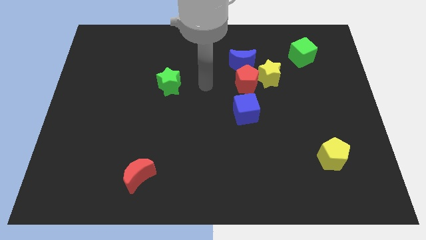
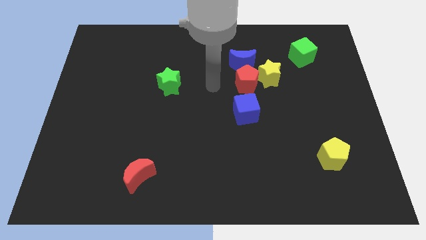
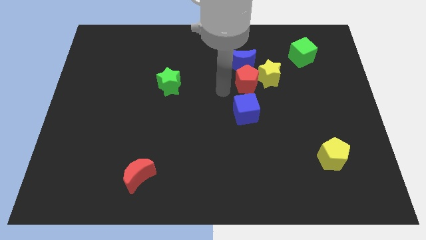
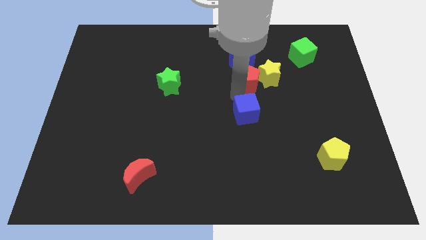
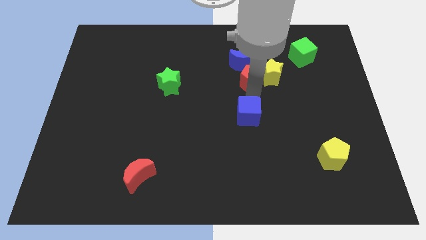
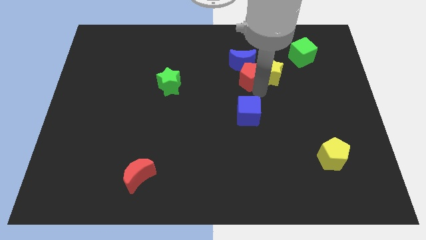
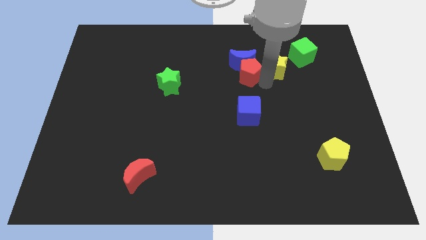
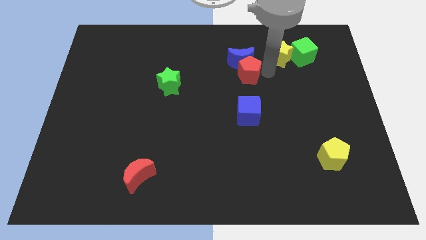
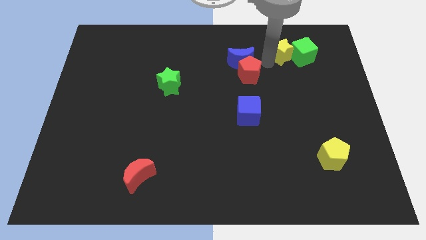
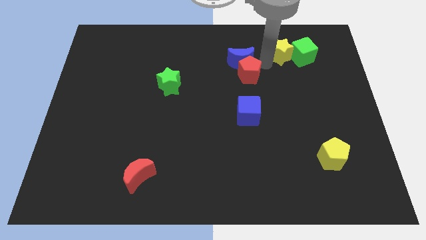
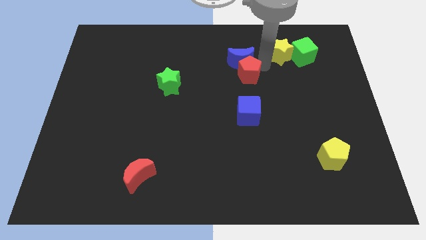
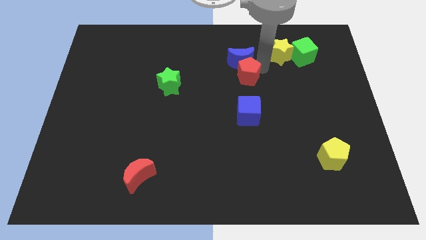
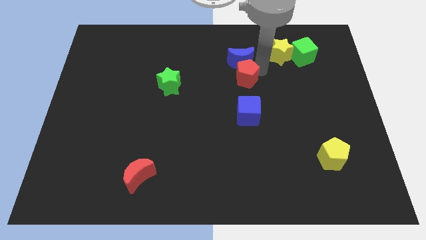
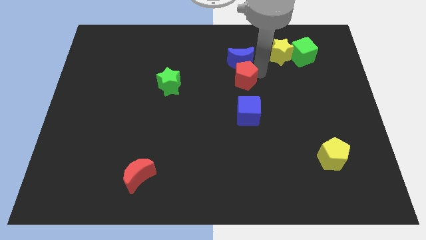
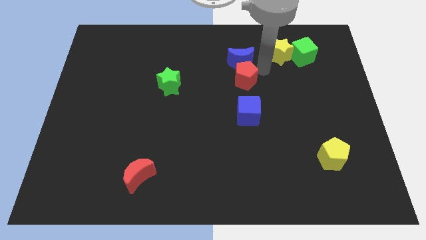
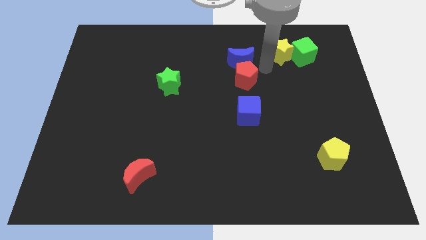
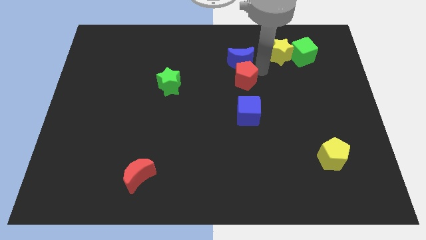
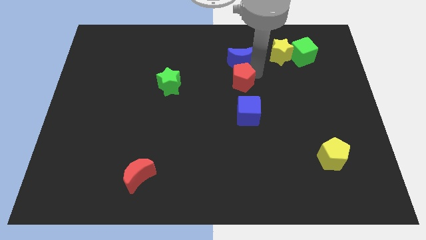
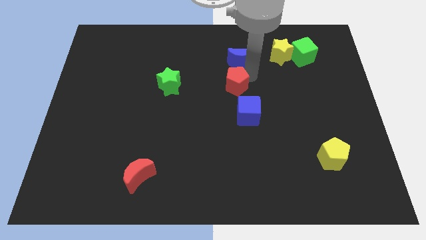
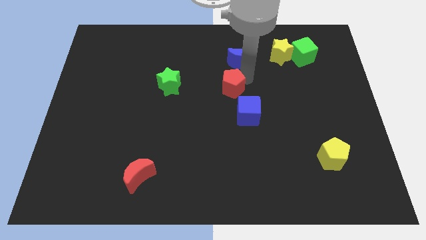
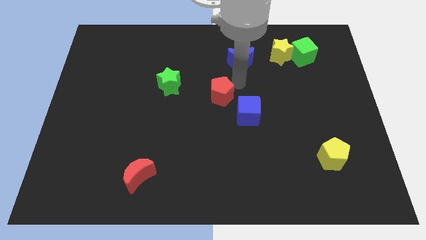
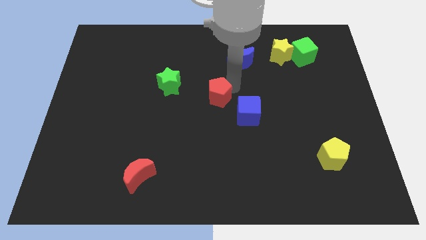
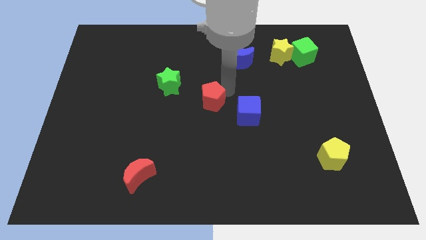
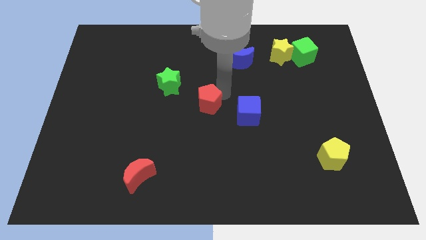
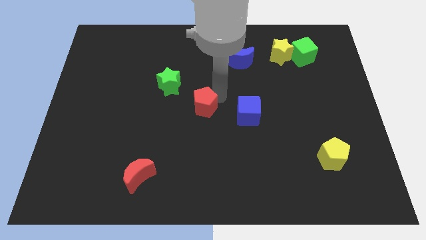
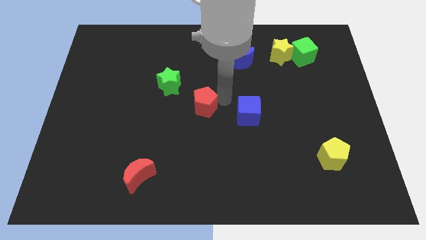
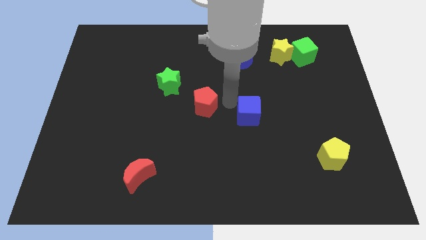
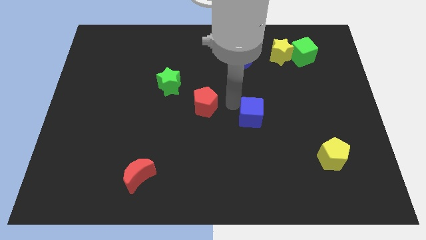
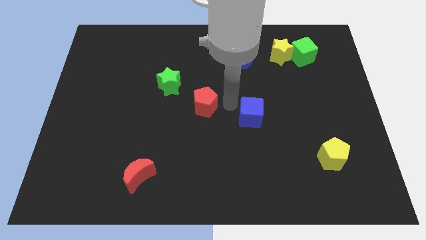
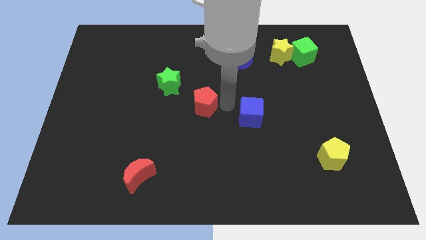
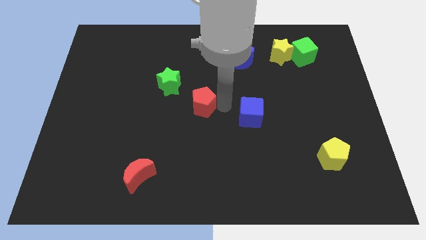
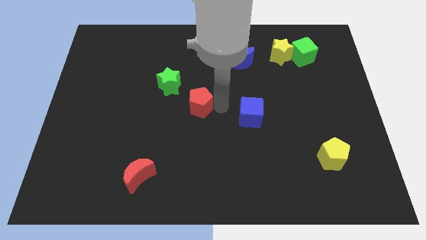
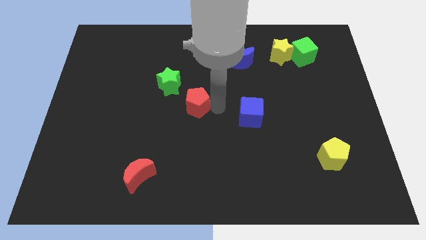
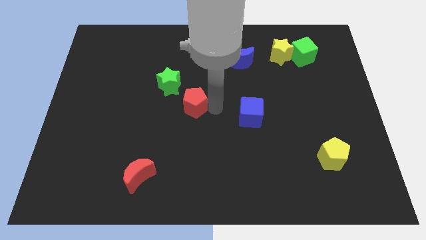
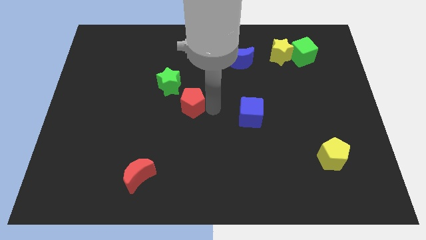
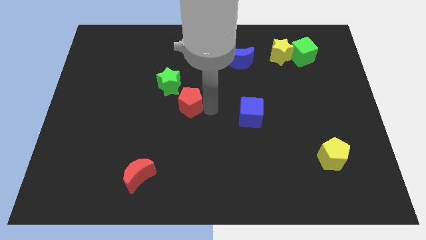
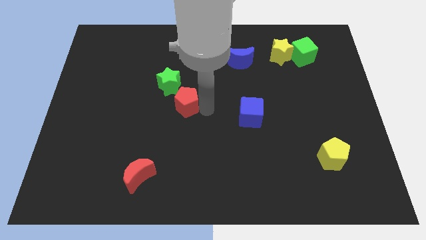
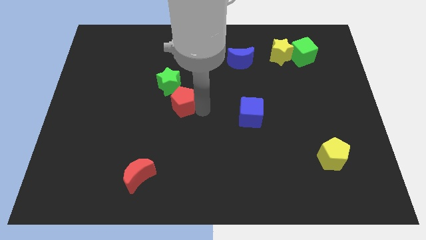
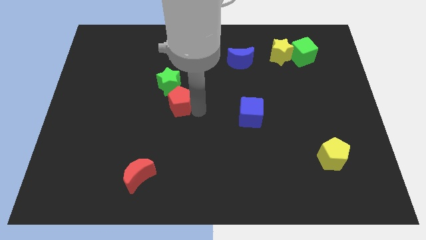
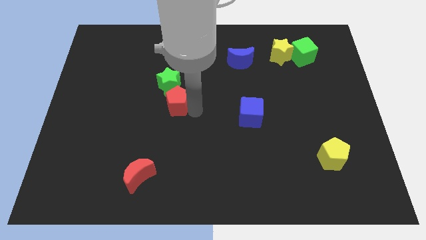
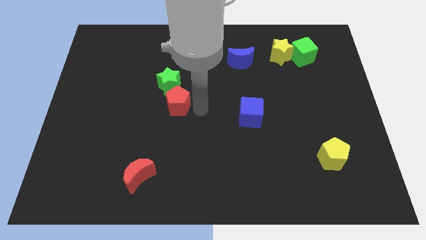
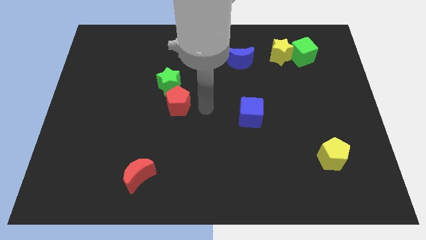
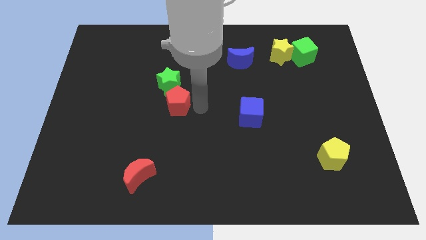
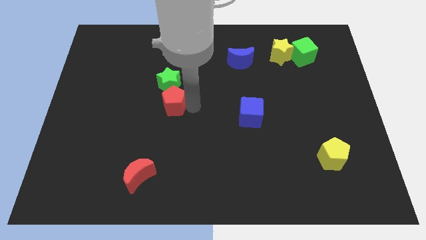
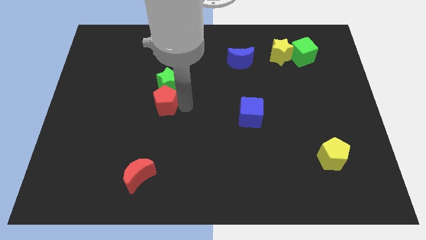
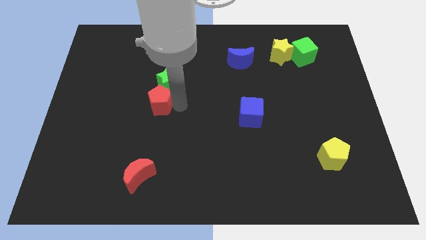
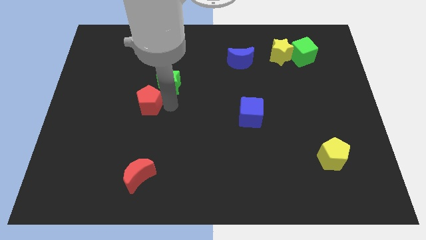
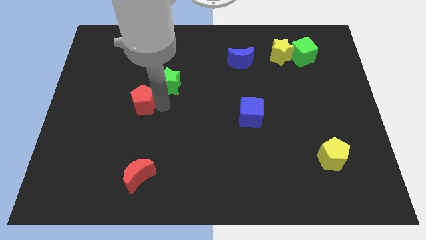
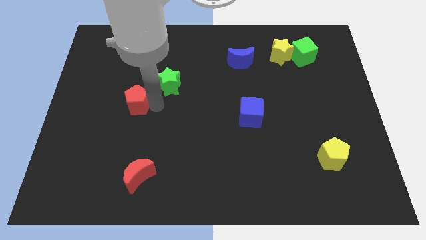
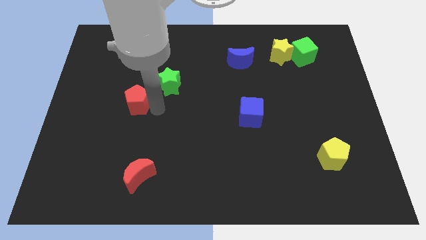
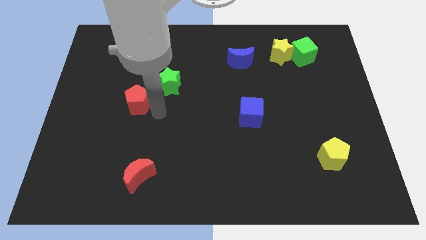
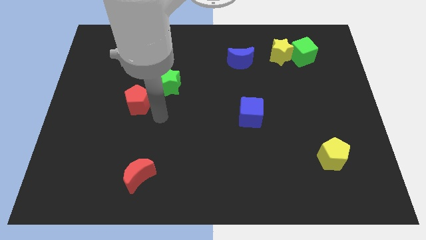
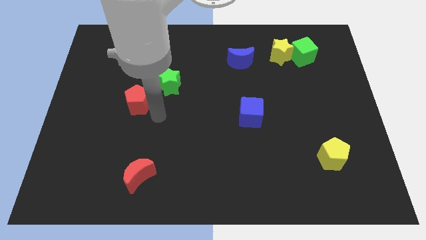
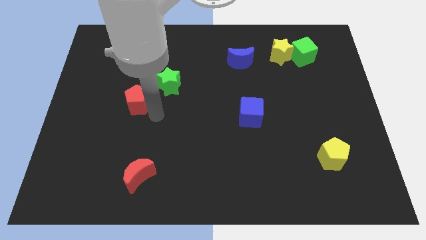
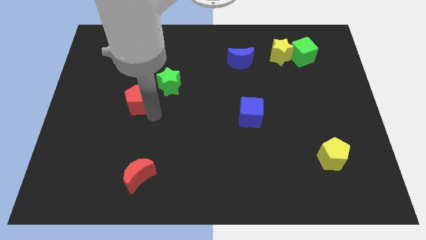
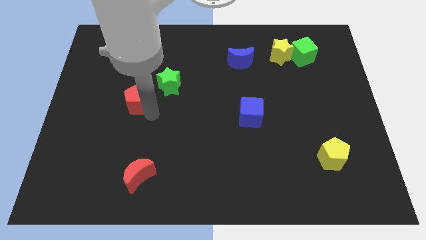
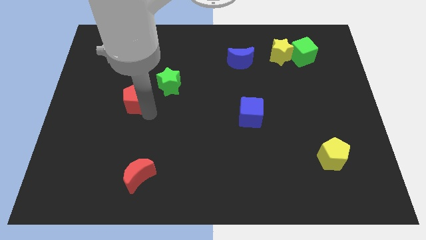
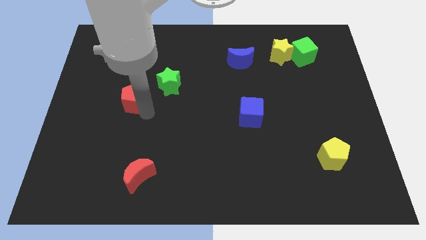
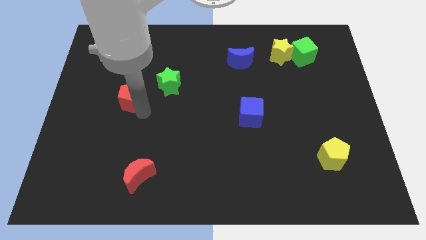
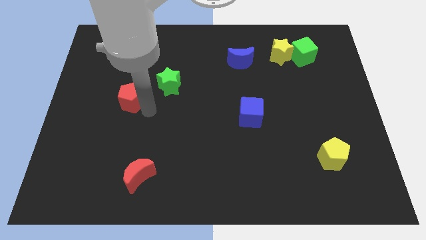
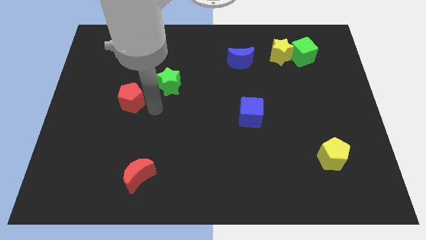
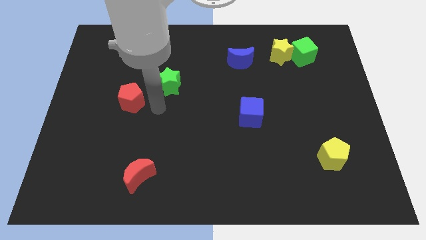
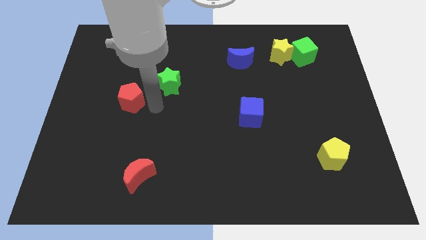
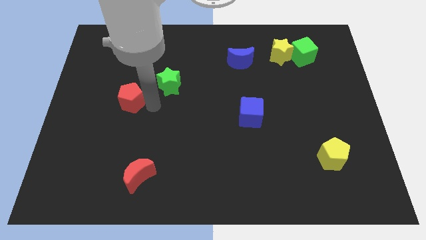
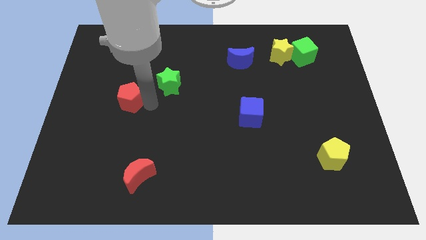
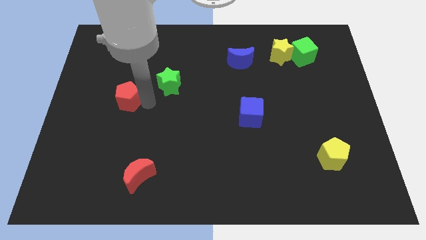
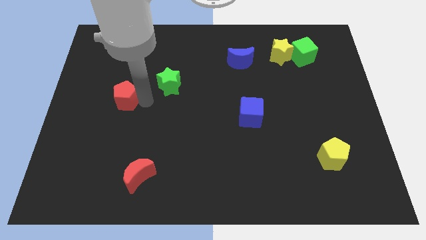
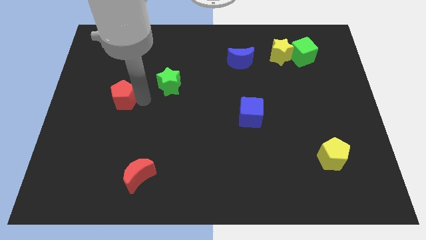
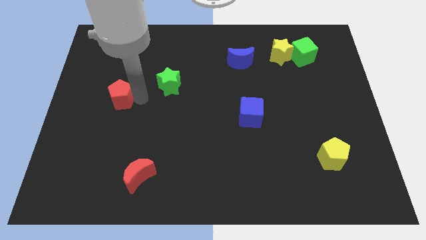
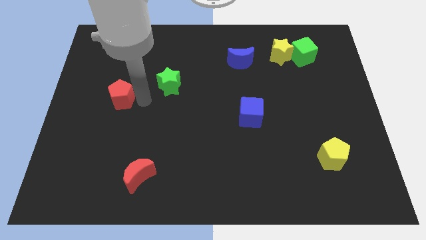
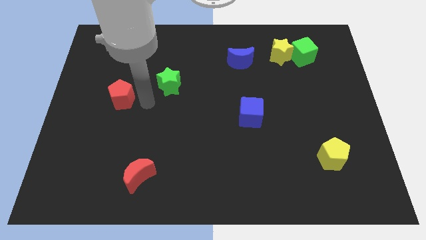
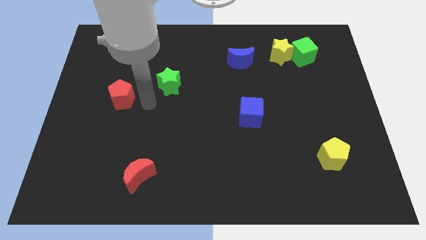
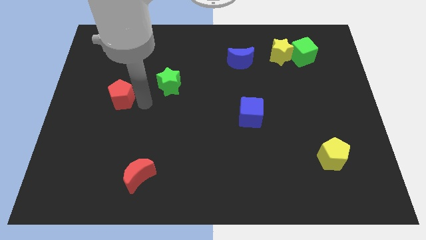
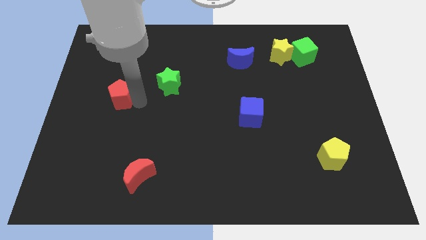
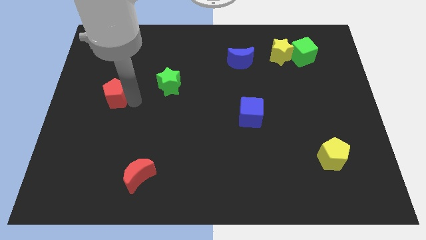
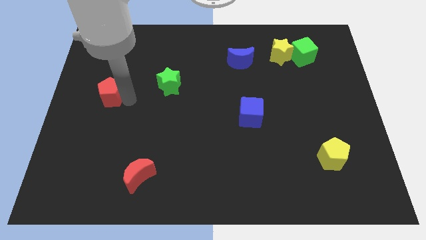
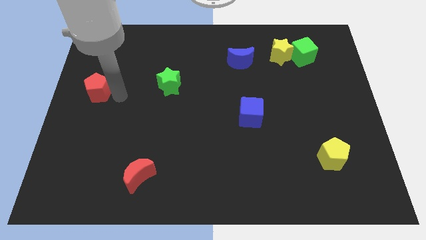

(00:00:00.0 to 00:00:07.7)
push the red pentagon to the left side of the board
